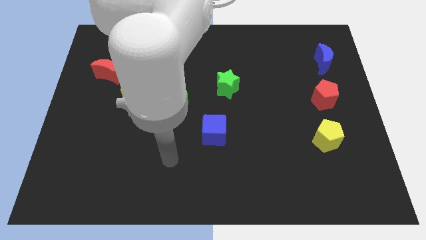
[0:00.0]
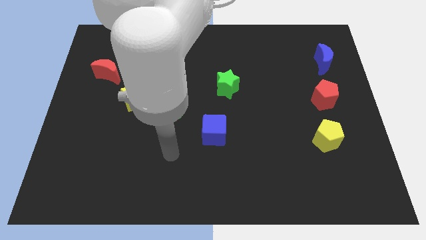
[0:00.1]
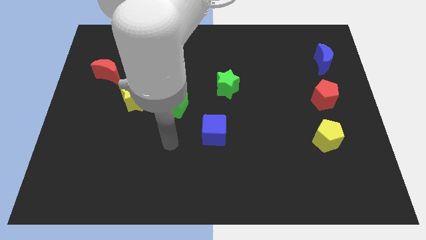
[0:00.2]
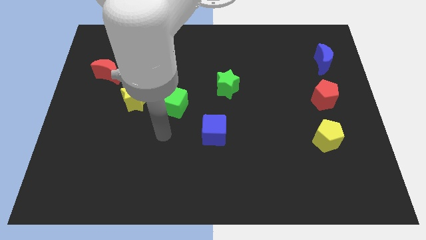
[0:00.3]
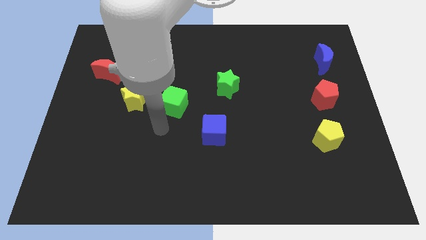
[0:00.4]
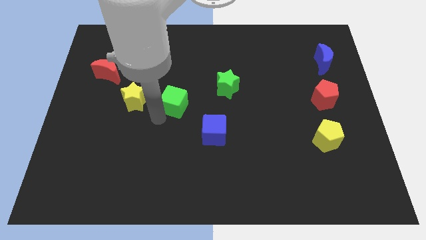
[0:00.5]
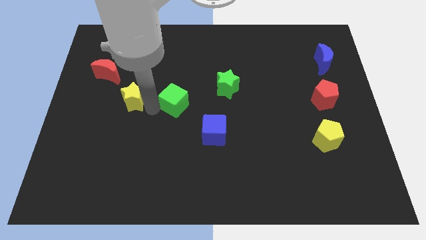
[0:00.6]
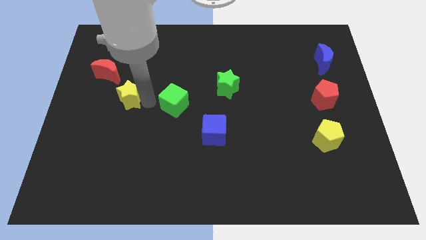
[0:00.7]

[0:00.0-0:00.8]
separate the green cube from the yellow star

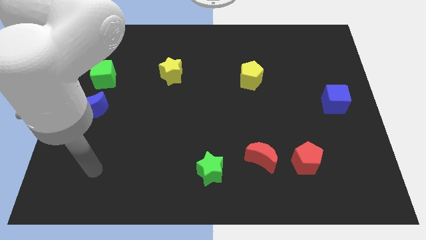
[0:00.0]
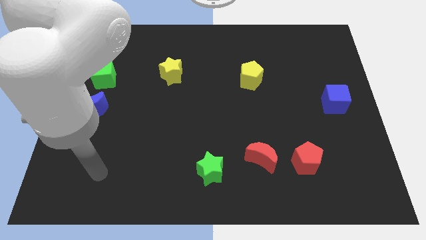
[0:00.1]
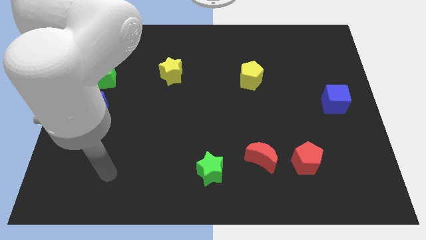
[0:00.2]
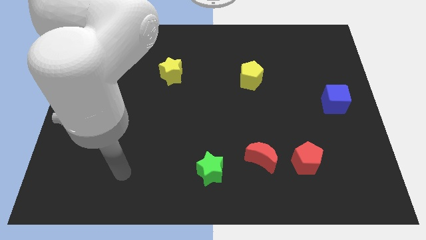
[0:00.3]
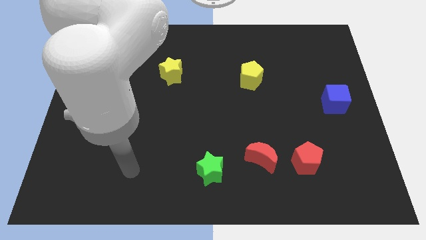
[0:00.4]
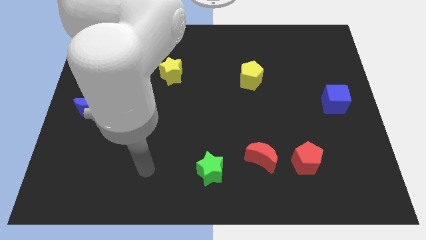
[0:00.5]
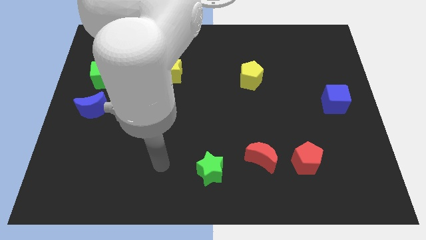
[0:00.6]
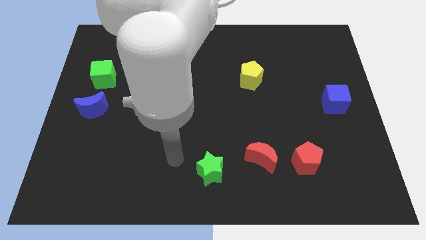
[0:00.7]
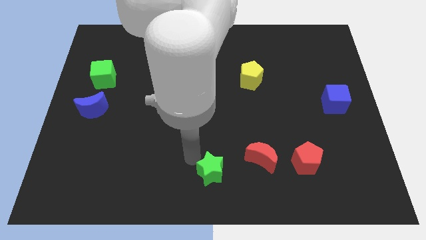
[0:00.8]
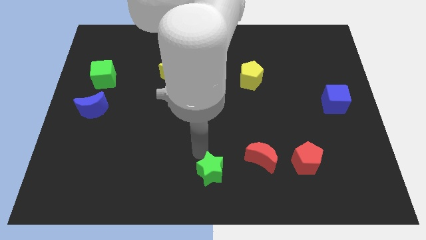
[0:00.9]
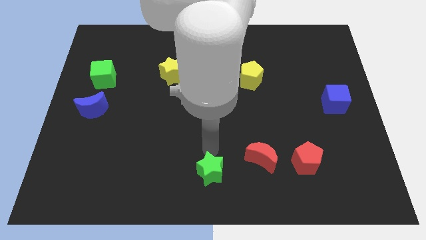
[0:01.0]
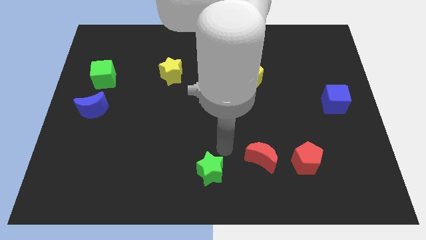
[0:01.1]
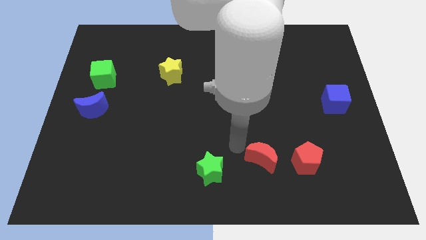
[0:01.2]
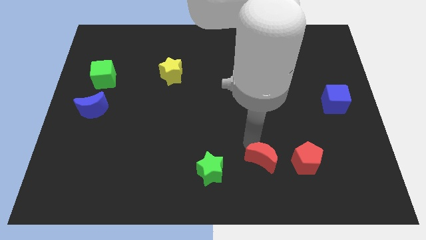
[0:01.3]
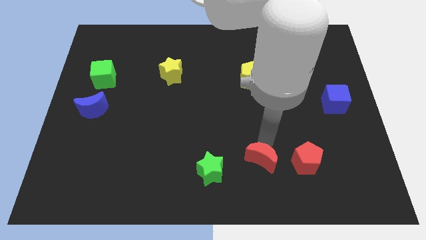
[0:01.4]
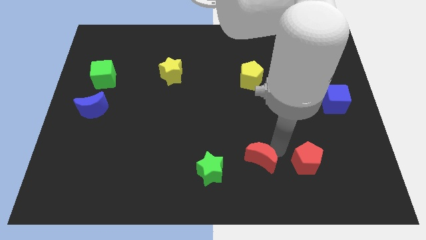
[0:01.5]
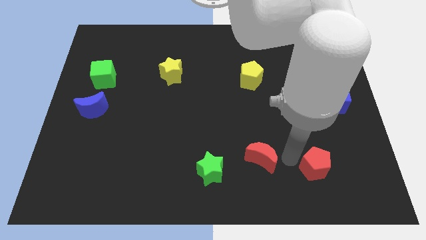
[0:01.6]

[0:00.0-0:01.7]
separate the red moon from the red pentagon

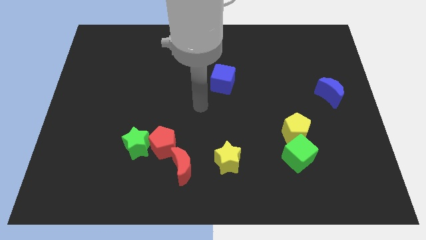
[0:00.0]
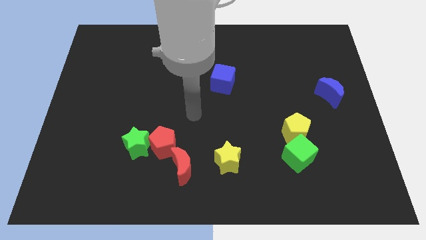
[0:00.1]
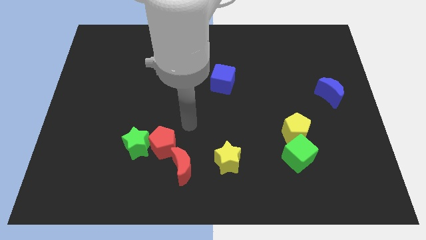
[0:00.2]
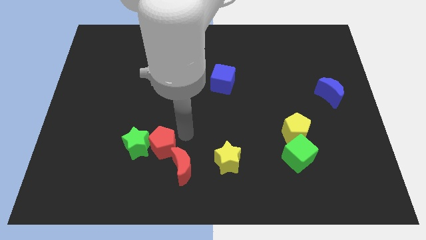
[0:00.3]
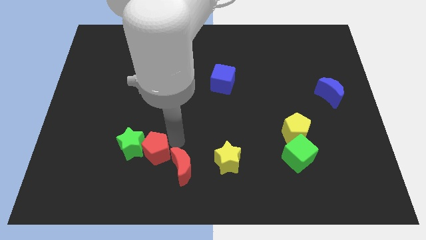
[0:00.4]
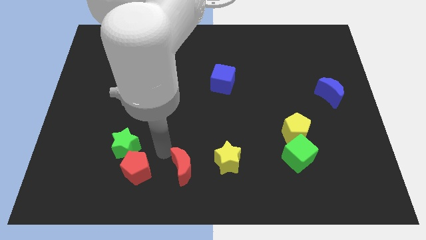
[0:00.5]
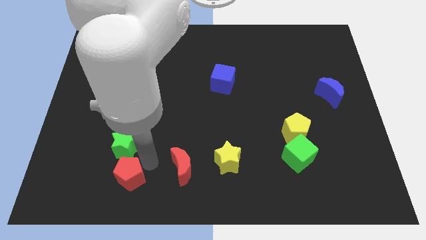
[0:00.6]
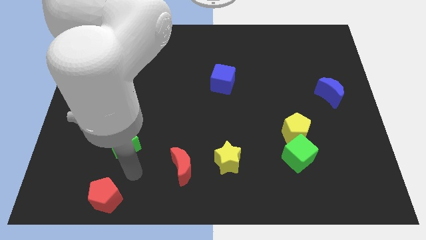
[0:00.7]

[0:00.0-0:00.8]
move the green star away from the red pentagon

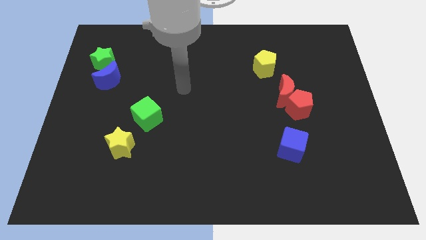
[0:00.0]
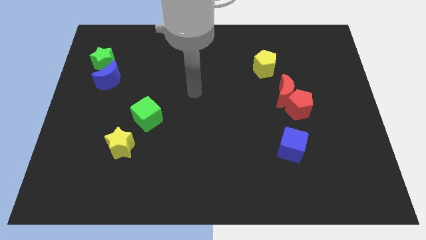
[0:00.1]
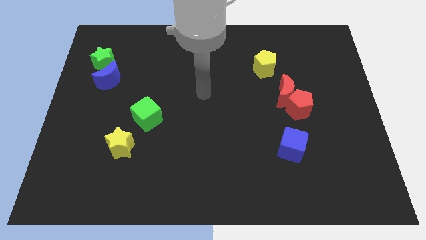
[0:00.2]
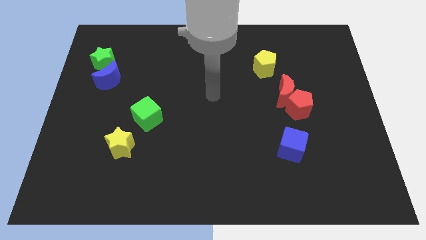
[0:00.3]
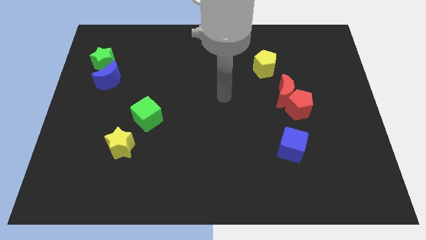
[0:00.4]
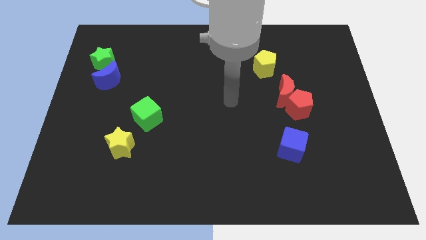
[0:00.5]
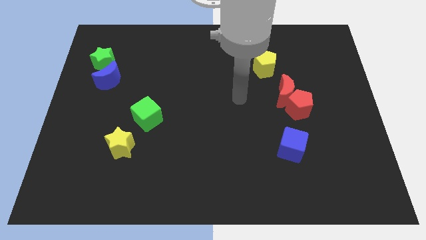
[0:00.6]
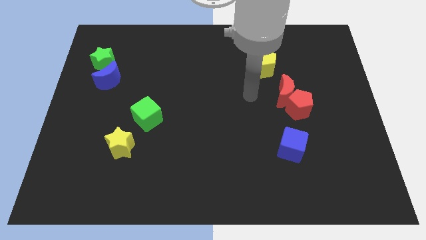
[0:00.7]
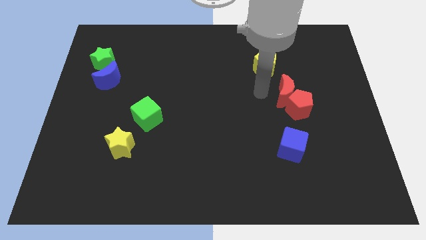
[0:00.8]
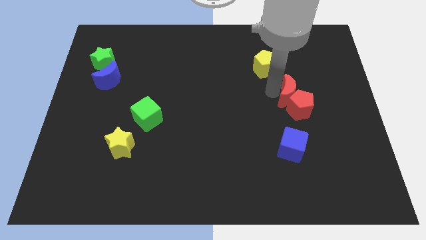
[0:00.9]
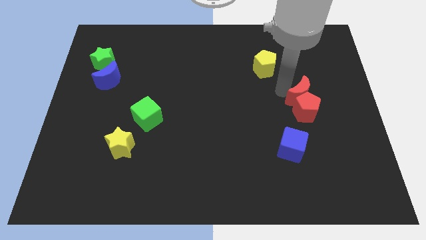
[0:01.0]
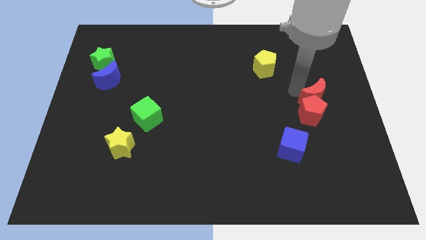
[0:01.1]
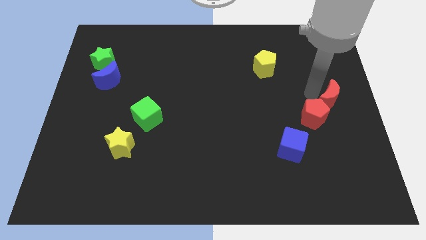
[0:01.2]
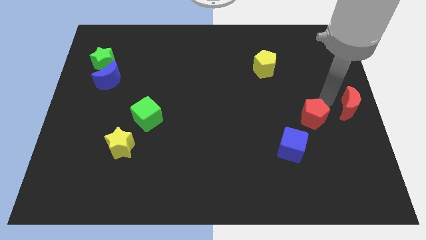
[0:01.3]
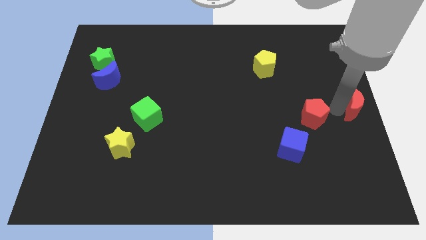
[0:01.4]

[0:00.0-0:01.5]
pull the red pentagon apart from the red moon

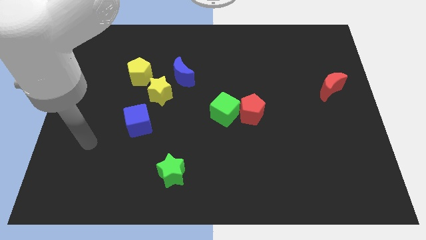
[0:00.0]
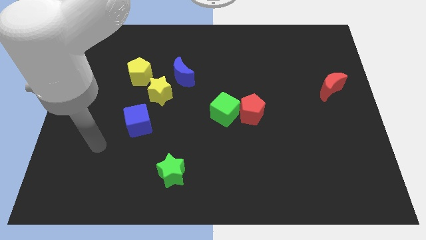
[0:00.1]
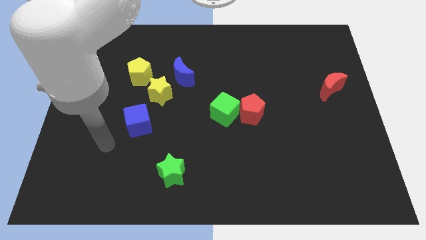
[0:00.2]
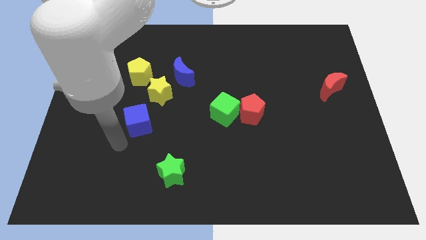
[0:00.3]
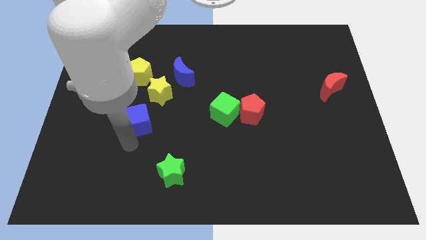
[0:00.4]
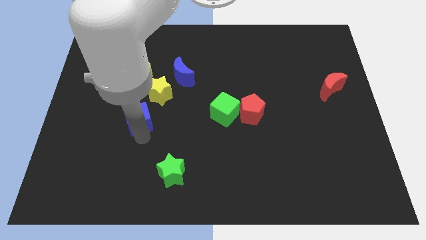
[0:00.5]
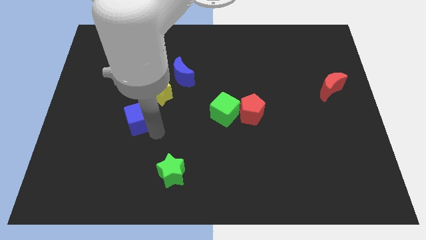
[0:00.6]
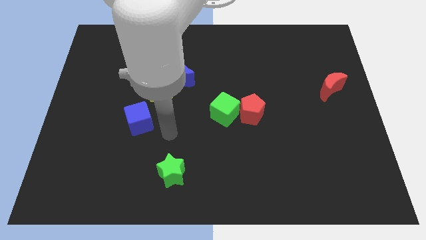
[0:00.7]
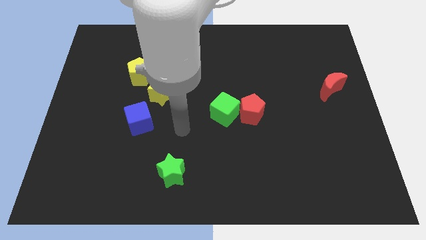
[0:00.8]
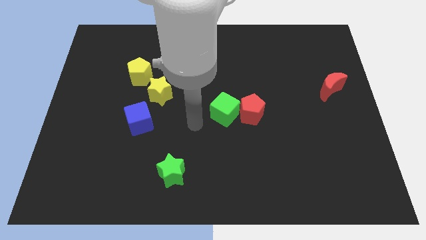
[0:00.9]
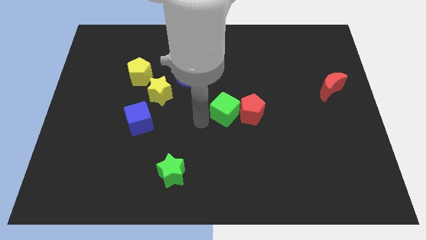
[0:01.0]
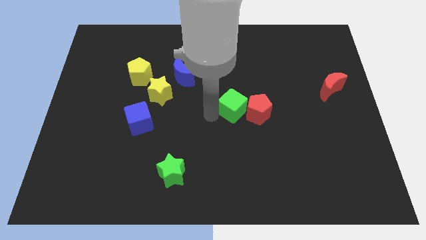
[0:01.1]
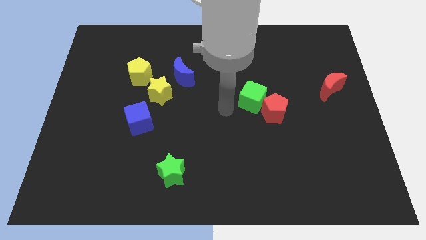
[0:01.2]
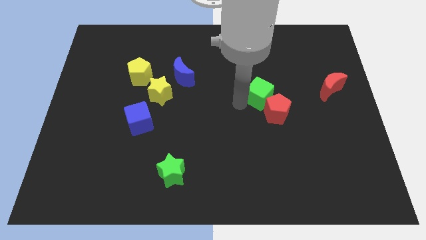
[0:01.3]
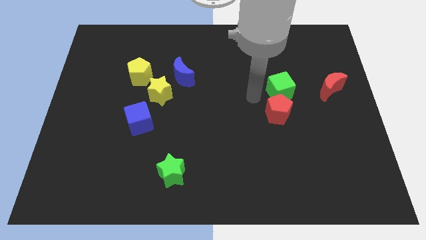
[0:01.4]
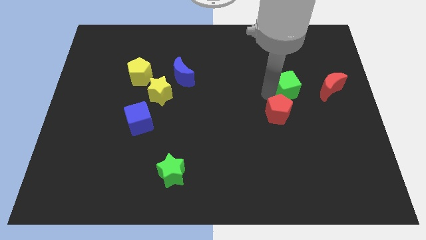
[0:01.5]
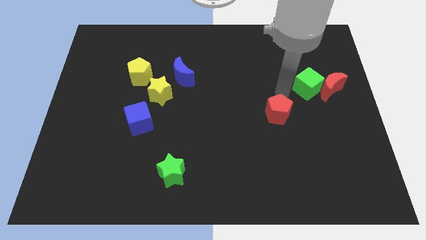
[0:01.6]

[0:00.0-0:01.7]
move the red pentagon away from the green cube

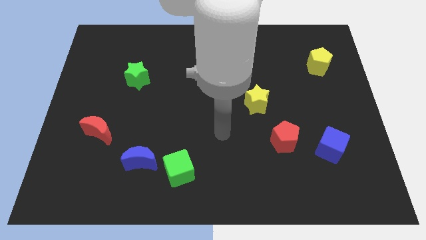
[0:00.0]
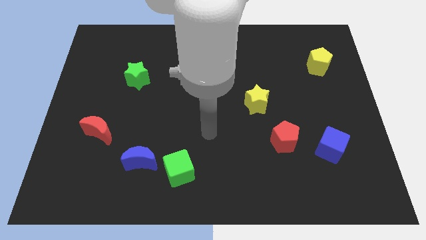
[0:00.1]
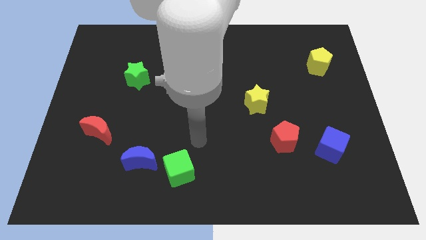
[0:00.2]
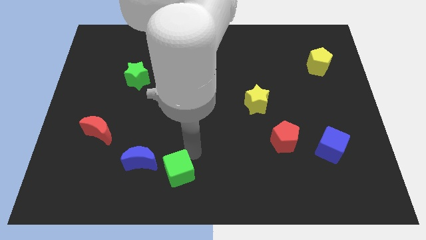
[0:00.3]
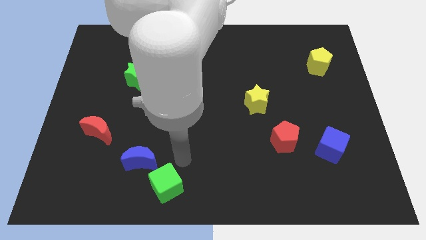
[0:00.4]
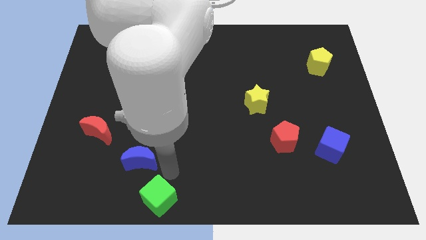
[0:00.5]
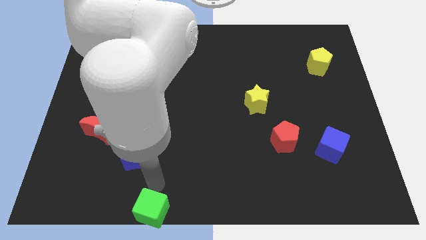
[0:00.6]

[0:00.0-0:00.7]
move the blue moon away from the green cube

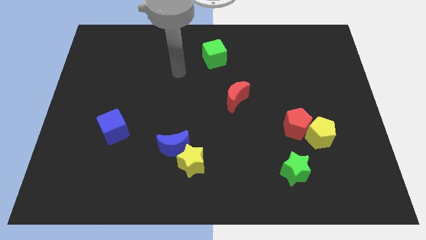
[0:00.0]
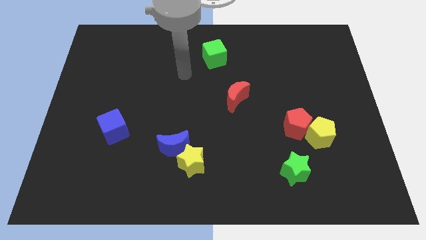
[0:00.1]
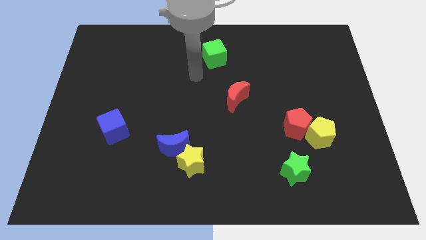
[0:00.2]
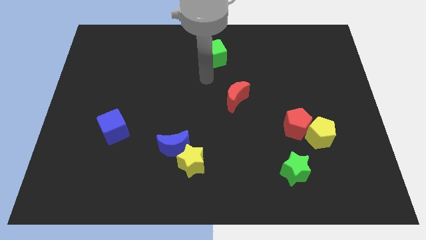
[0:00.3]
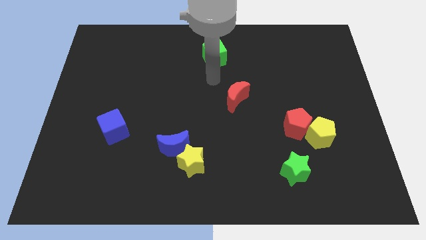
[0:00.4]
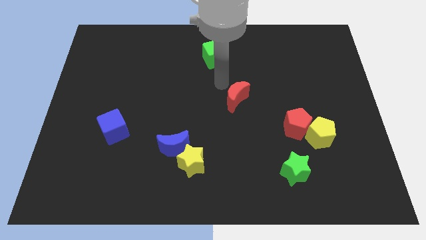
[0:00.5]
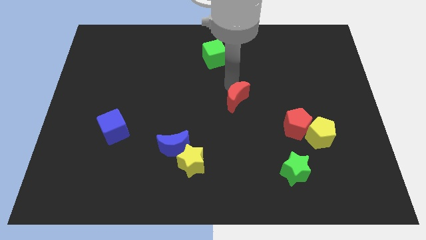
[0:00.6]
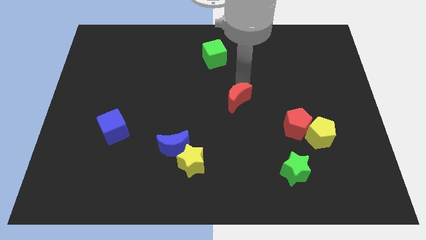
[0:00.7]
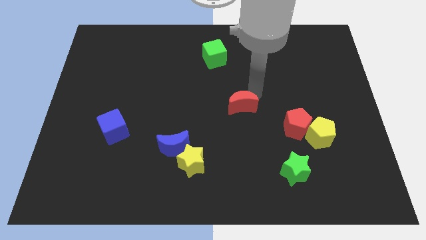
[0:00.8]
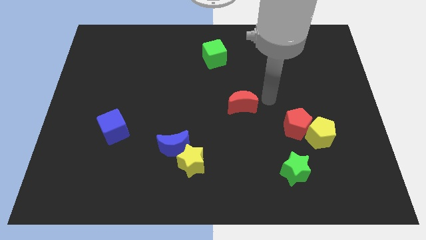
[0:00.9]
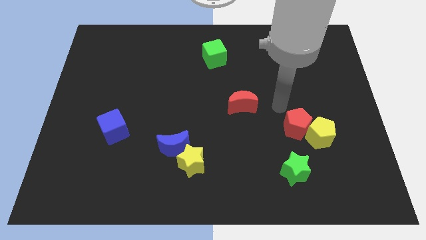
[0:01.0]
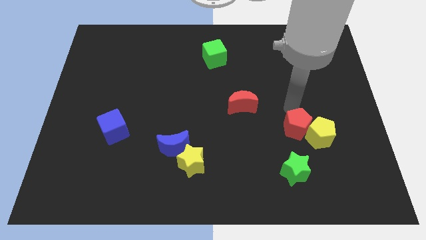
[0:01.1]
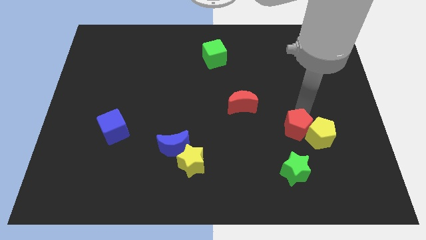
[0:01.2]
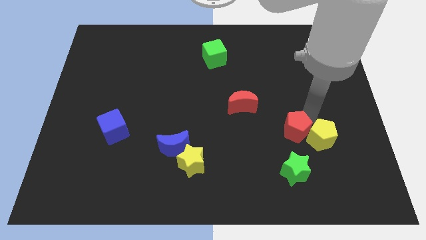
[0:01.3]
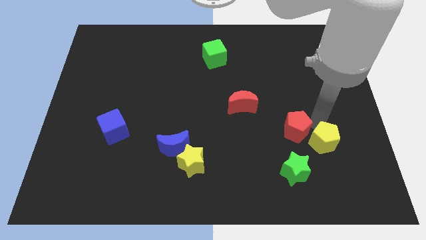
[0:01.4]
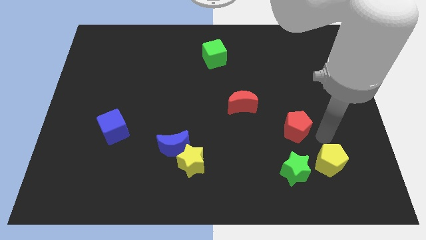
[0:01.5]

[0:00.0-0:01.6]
separate the red pentagon from the yellow pentagon

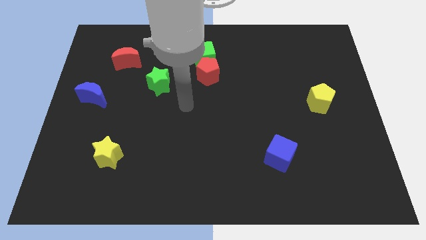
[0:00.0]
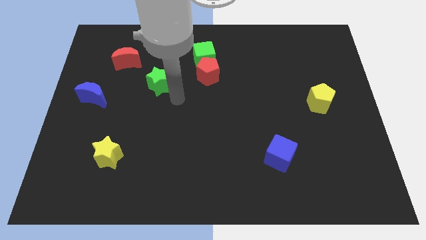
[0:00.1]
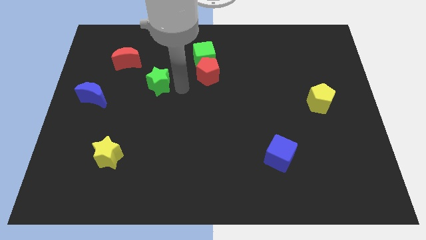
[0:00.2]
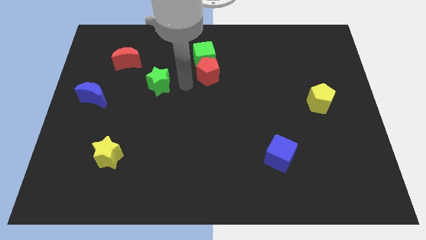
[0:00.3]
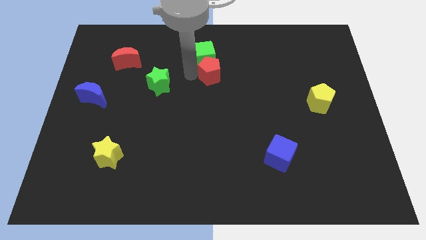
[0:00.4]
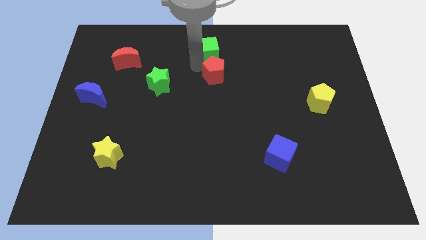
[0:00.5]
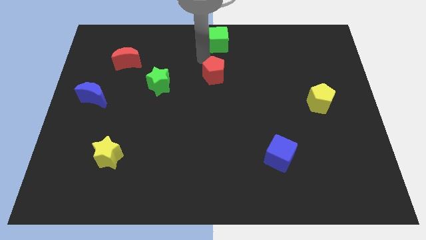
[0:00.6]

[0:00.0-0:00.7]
pull the red pentagon apart from the green cube
